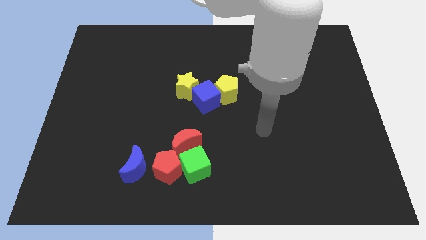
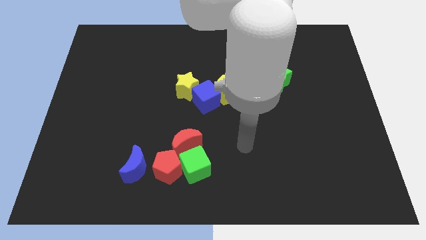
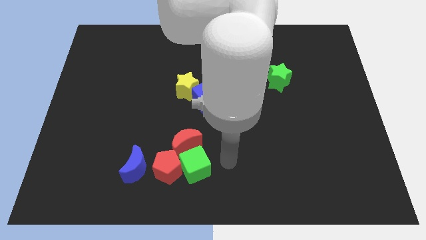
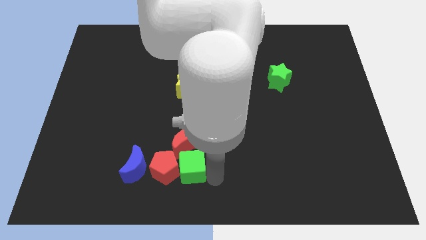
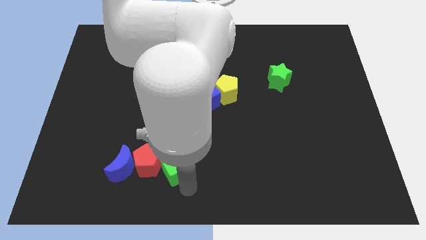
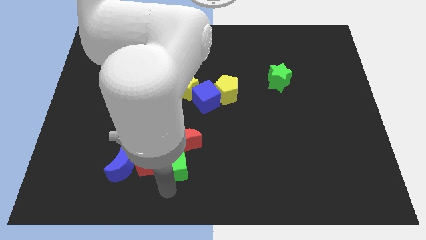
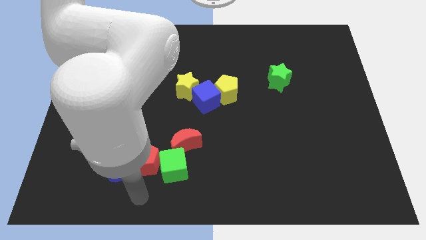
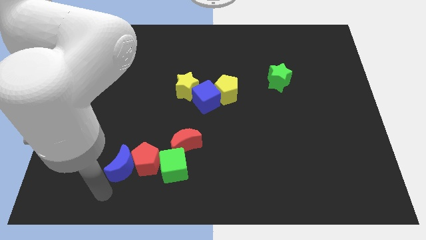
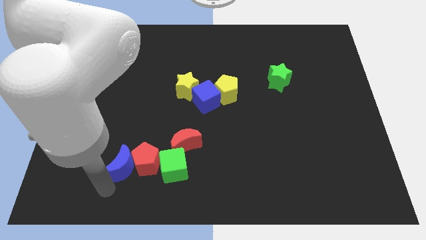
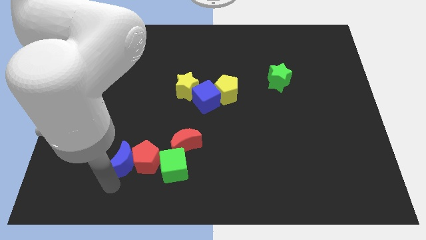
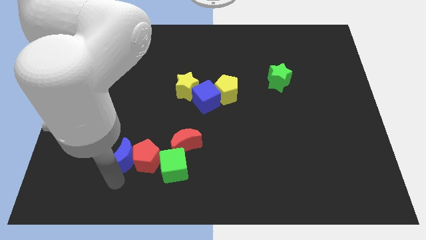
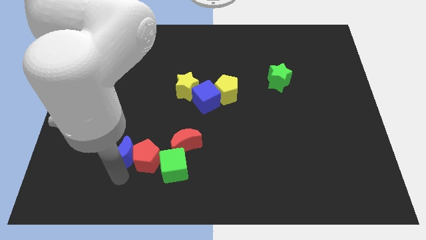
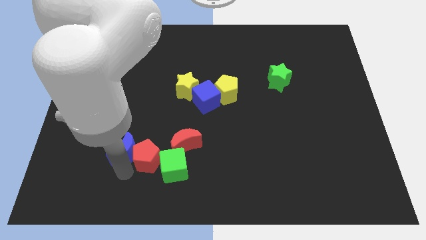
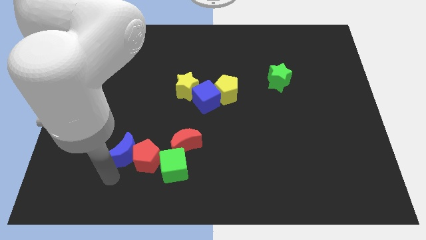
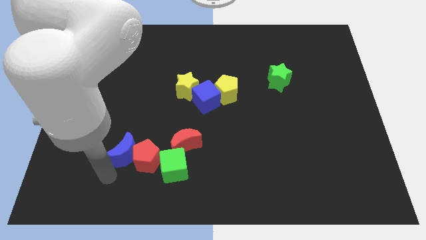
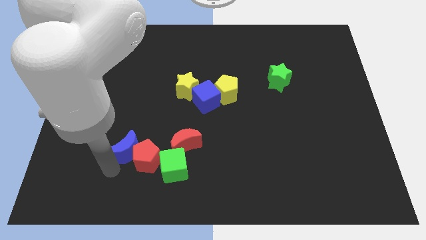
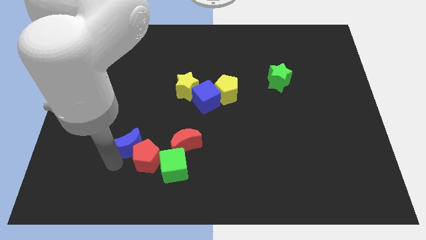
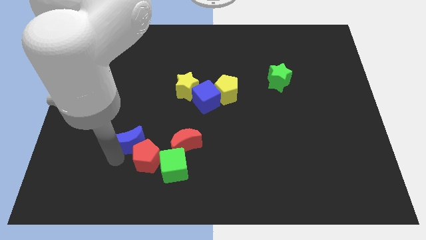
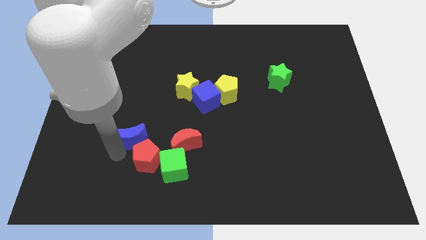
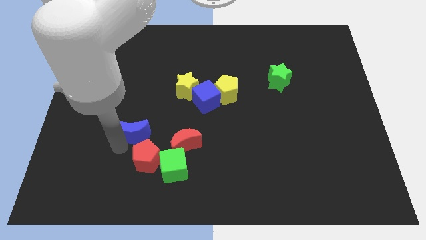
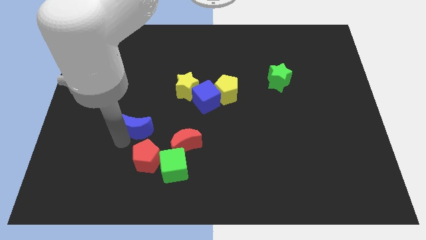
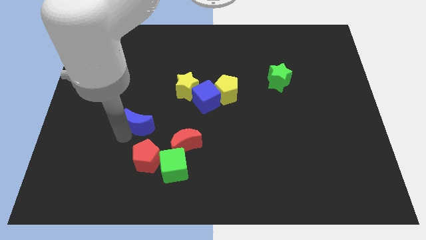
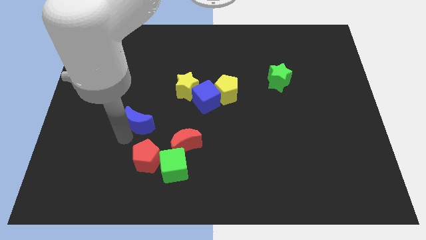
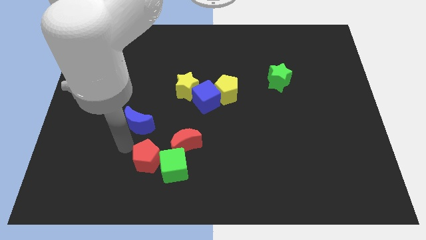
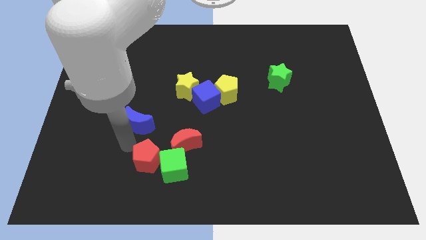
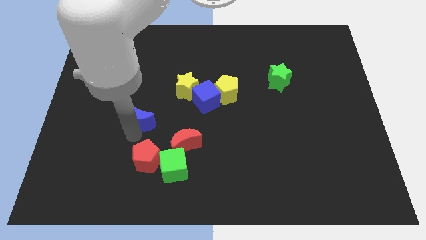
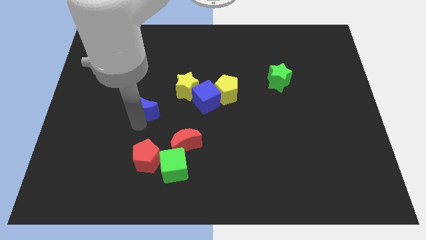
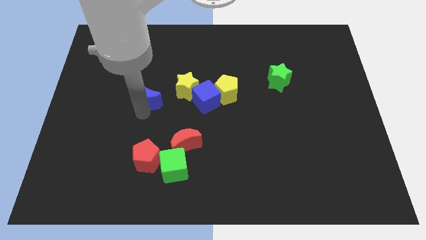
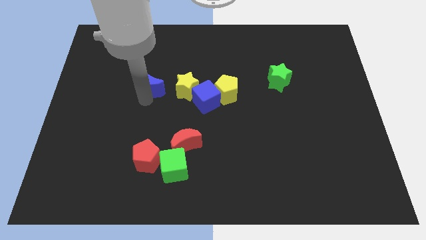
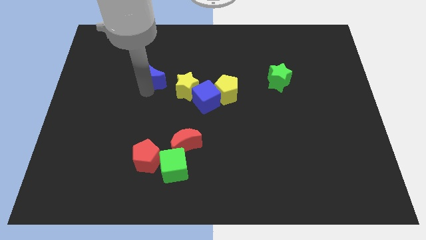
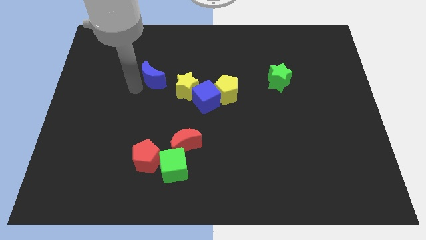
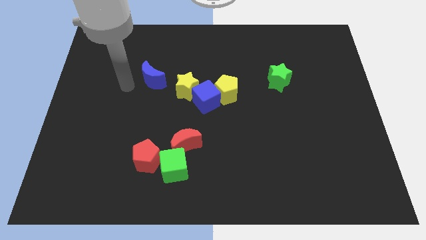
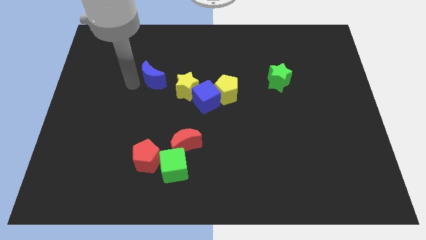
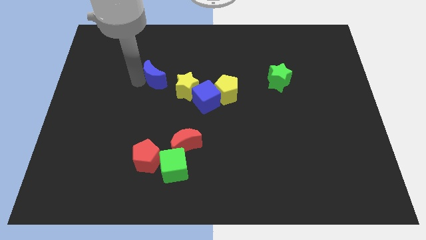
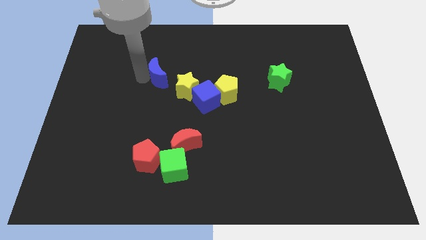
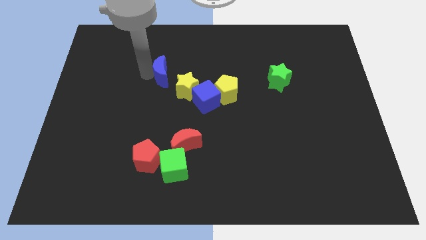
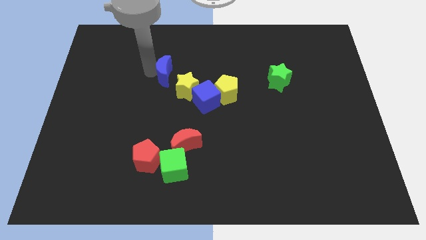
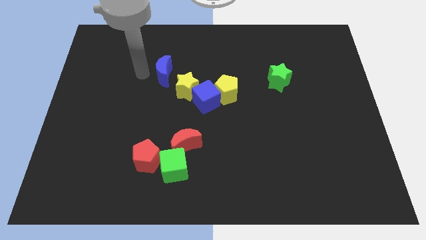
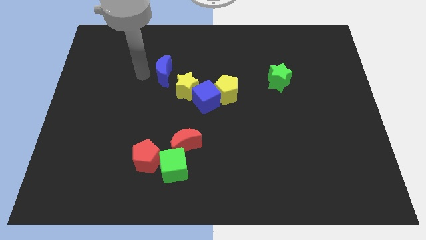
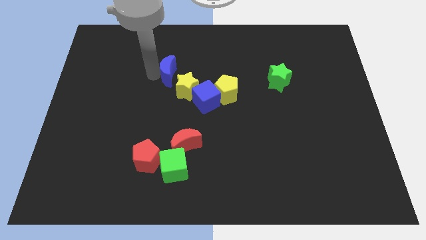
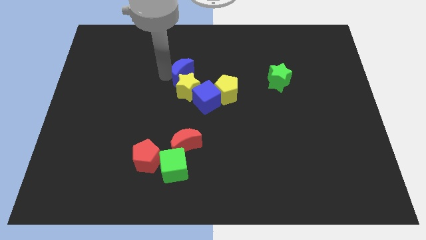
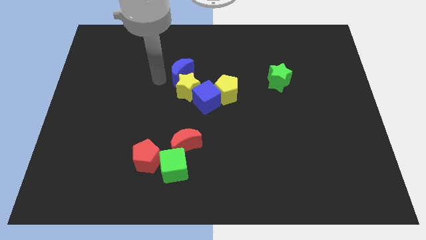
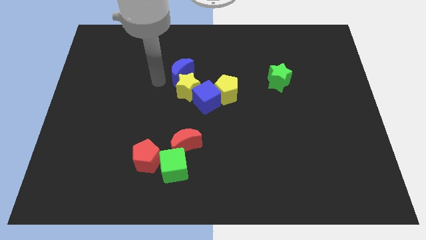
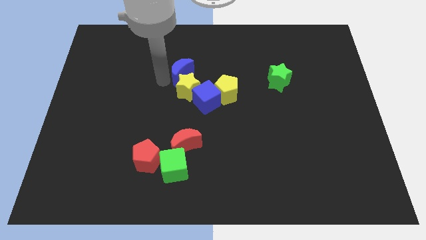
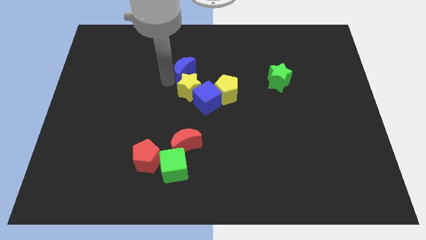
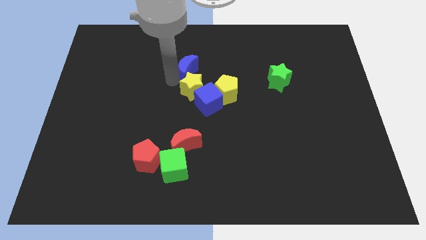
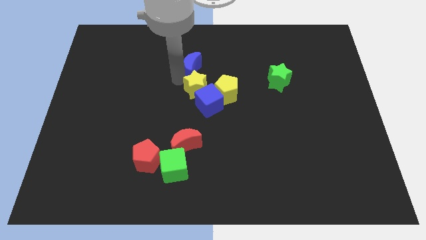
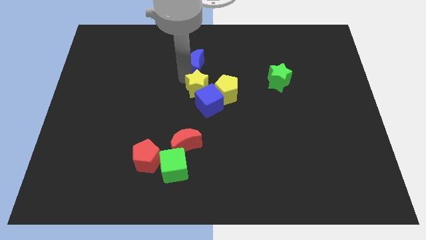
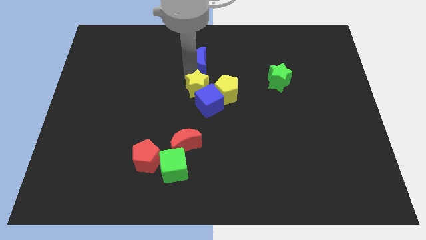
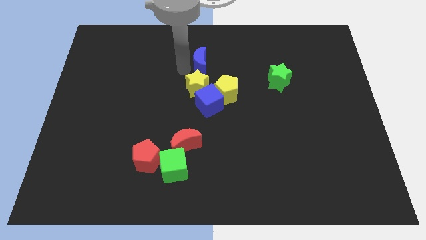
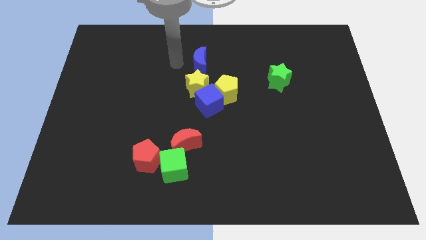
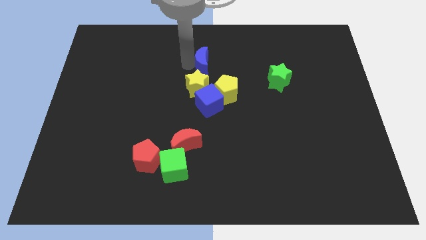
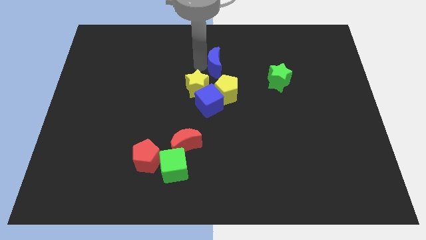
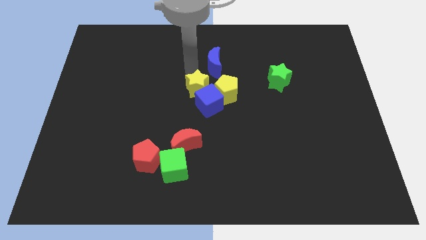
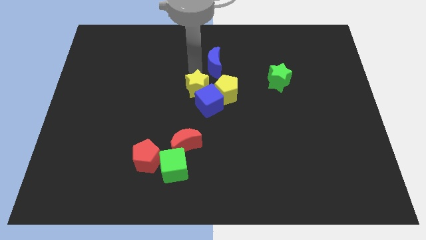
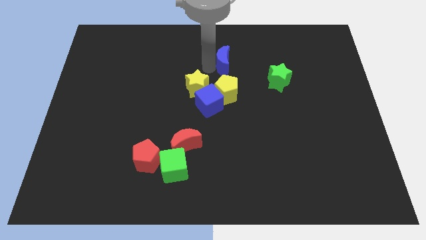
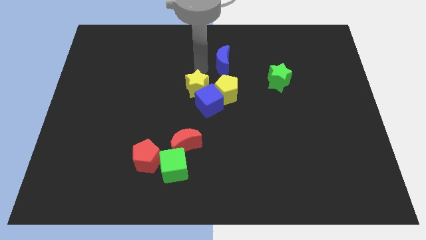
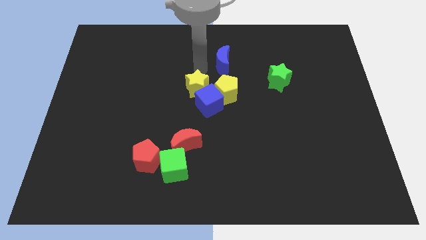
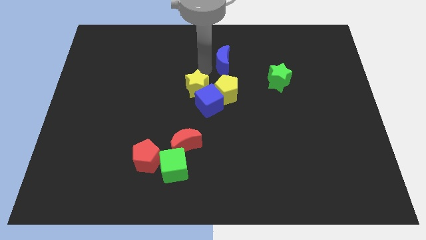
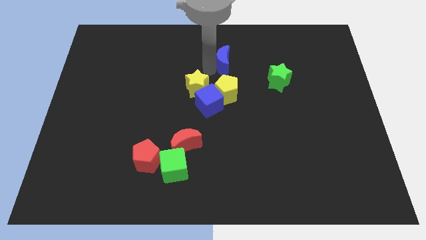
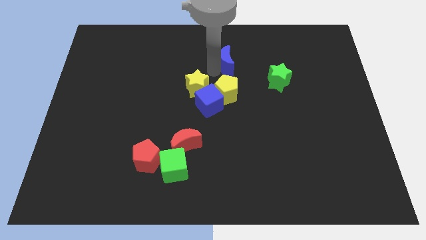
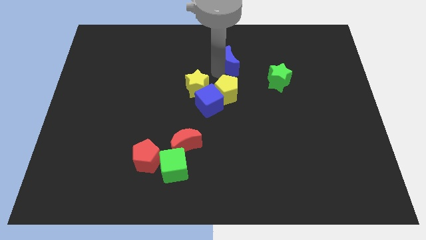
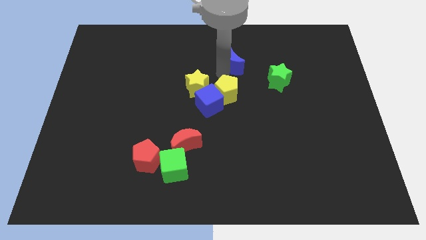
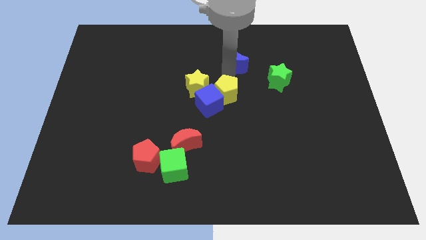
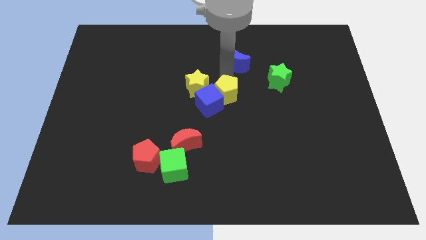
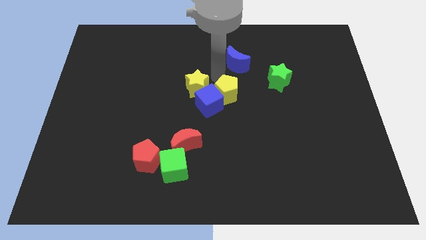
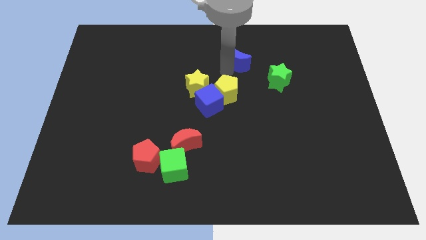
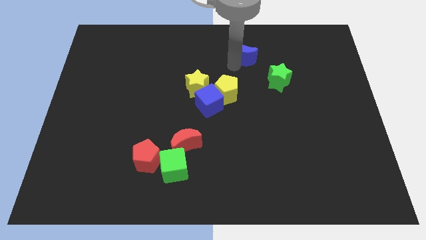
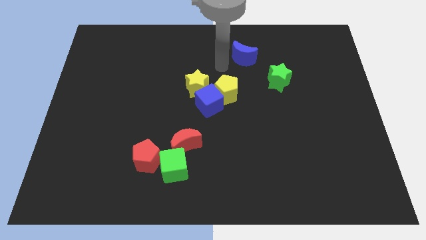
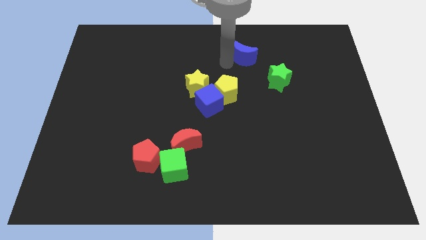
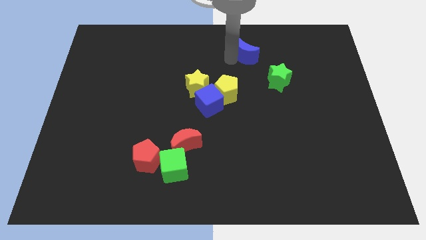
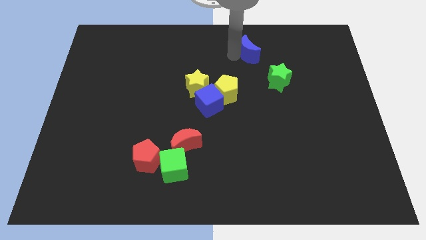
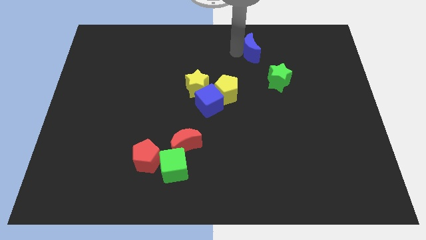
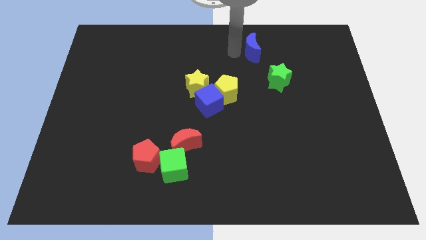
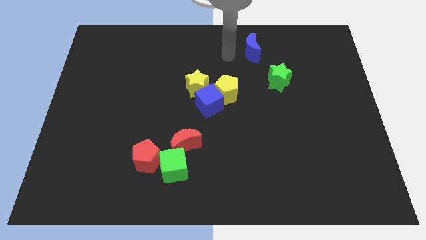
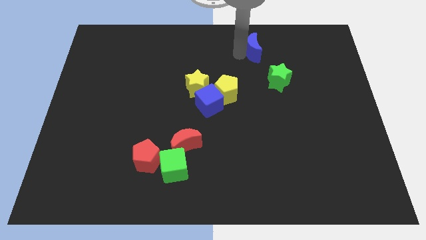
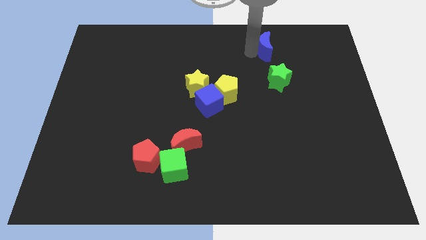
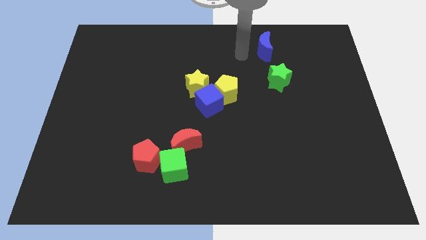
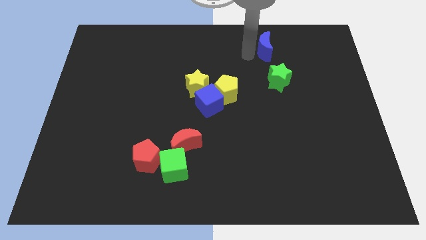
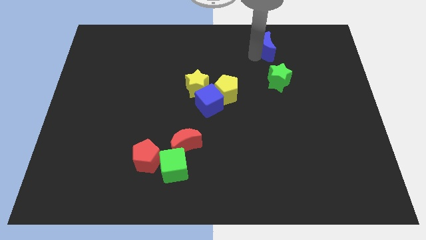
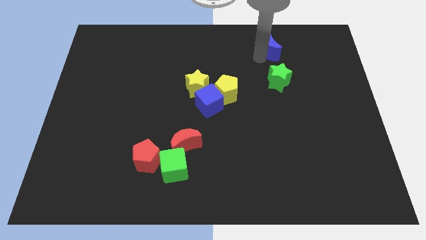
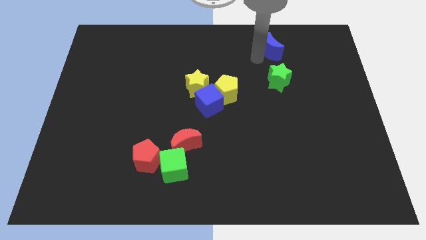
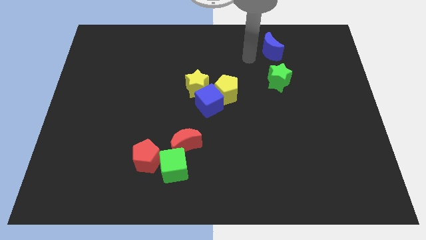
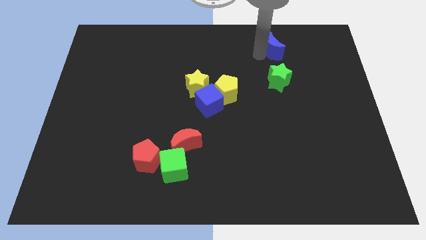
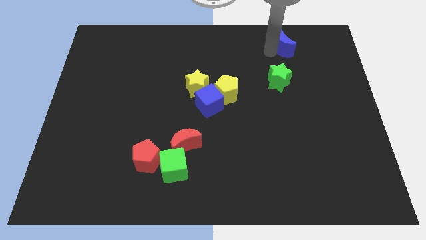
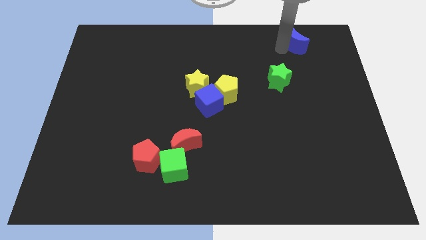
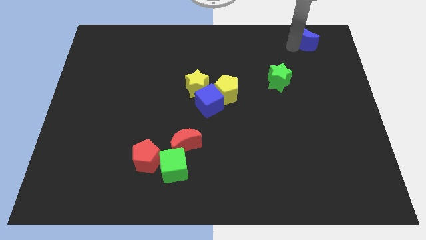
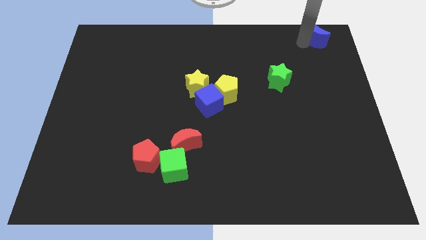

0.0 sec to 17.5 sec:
move the blue moon to the top right of the board
